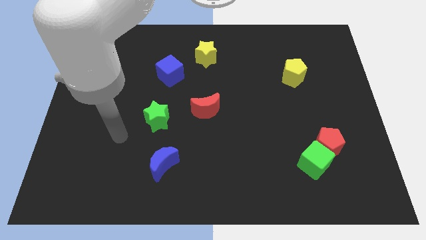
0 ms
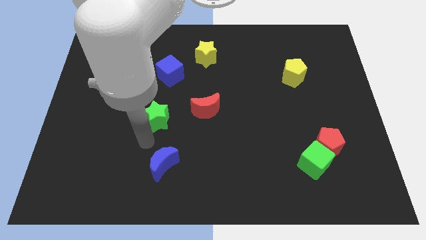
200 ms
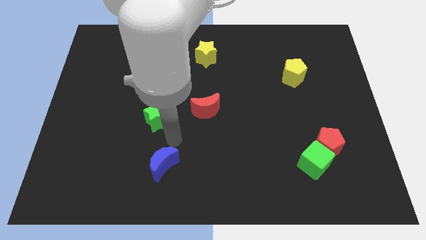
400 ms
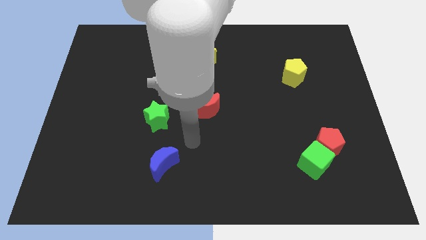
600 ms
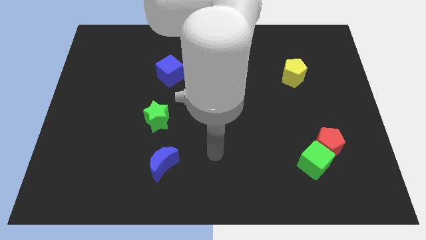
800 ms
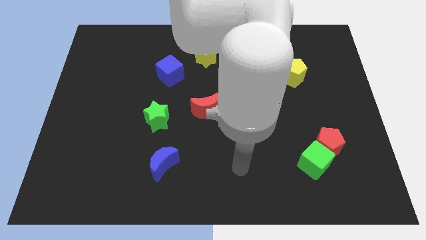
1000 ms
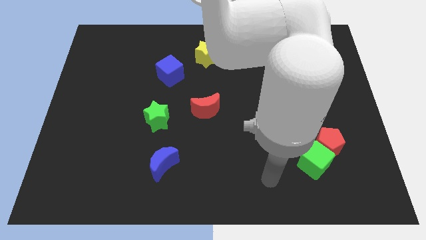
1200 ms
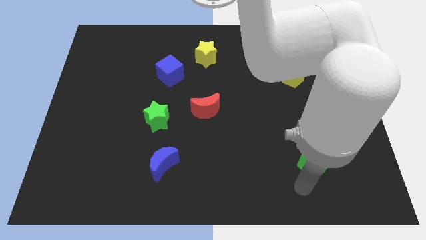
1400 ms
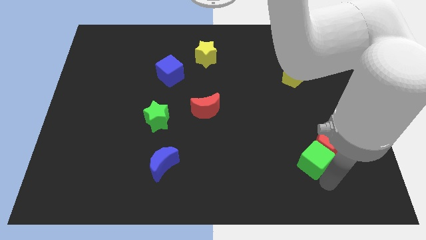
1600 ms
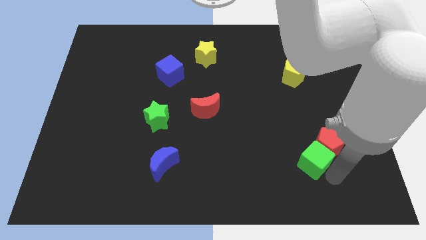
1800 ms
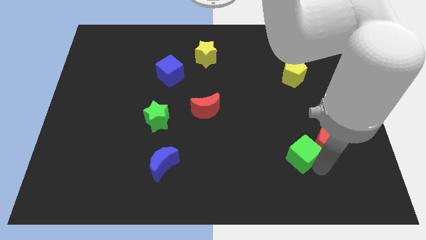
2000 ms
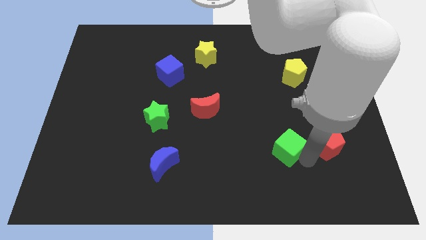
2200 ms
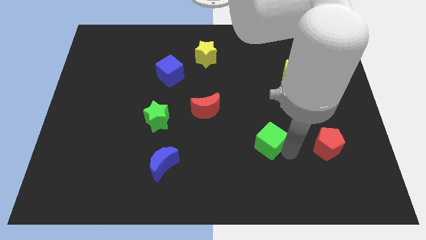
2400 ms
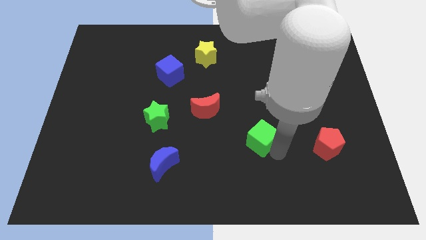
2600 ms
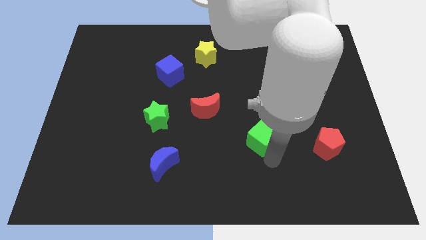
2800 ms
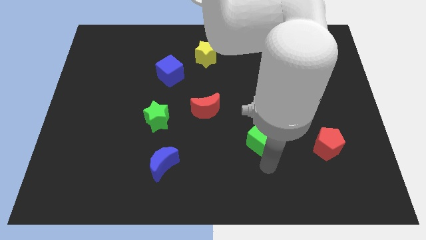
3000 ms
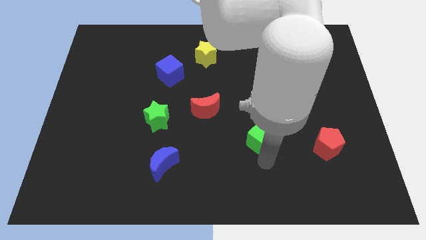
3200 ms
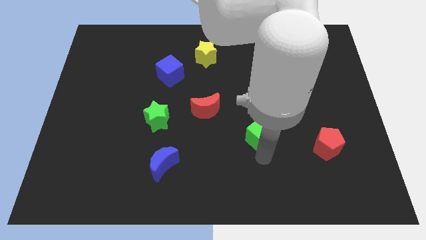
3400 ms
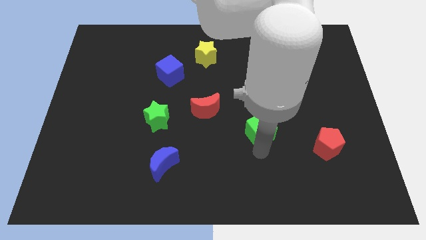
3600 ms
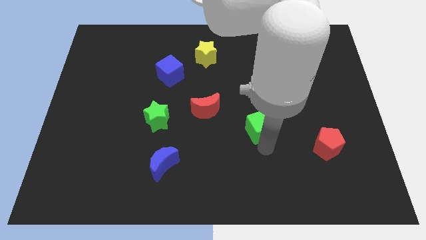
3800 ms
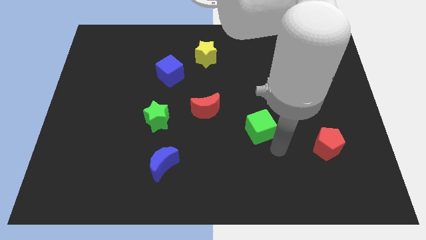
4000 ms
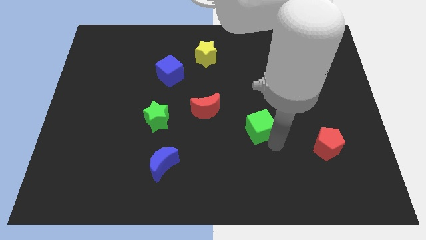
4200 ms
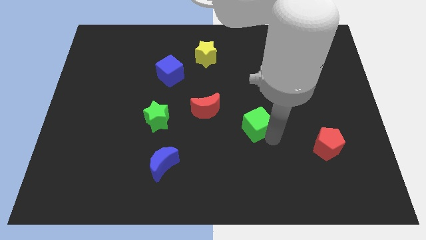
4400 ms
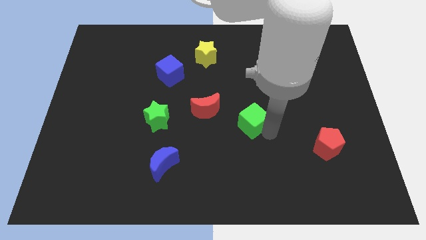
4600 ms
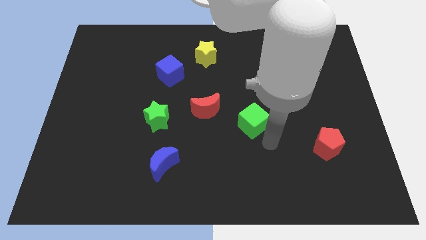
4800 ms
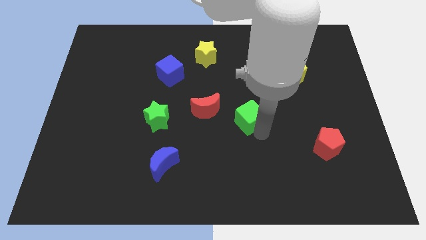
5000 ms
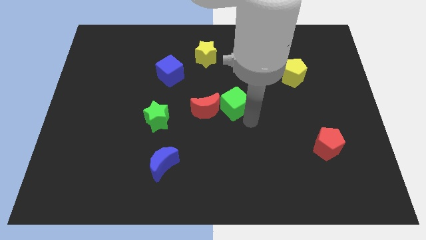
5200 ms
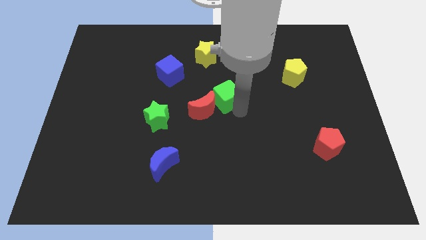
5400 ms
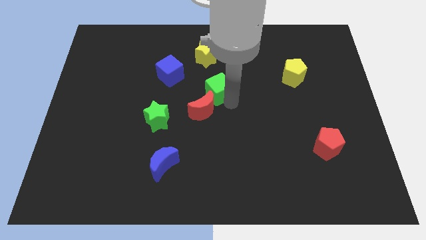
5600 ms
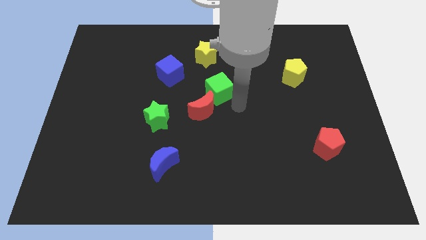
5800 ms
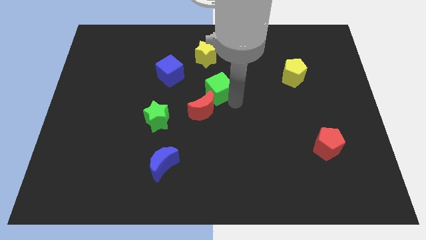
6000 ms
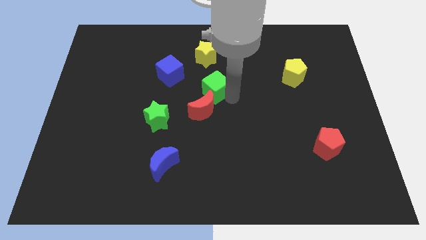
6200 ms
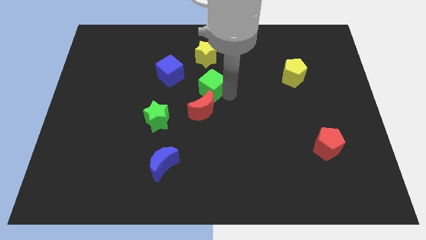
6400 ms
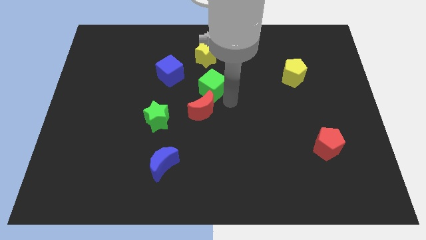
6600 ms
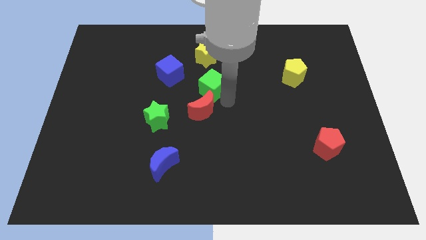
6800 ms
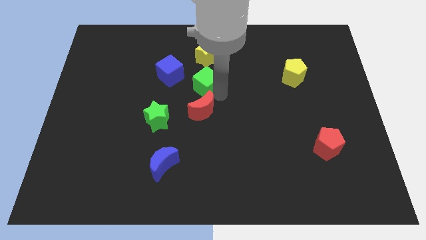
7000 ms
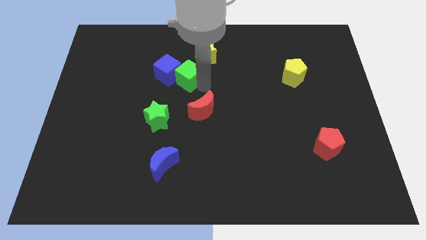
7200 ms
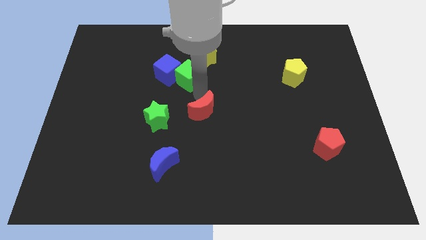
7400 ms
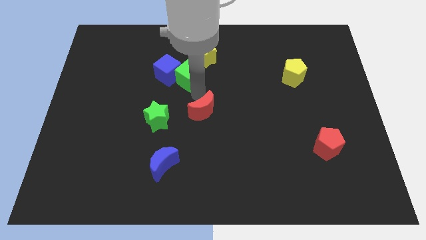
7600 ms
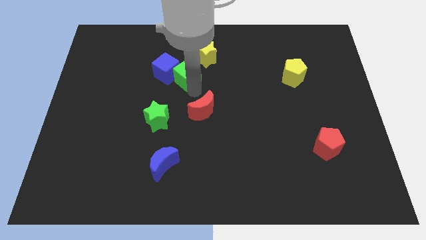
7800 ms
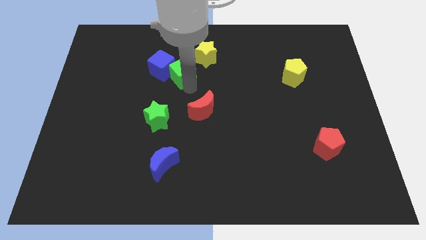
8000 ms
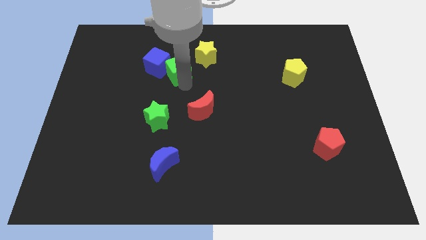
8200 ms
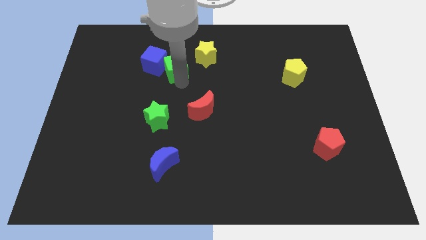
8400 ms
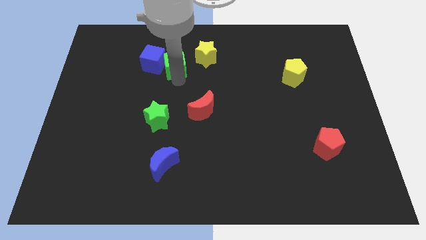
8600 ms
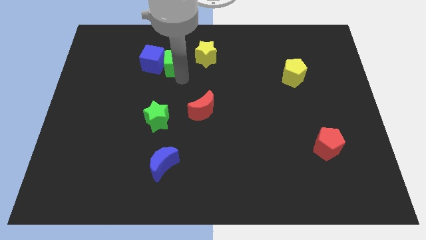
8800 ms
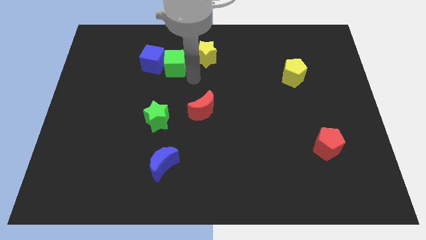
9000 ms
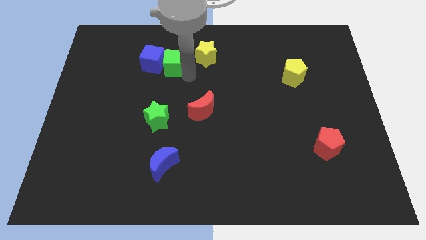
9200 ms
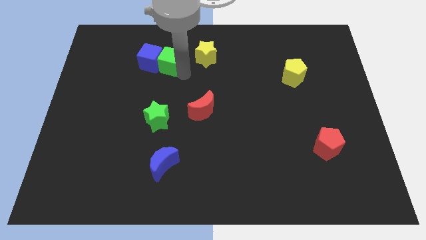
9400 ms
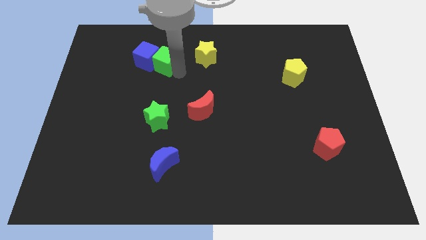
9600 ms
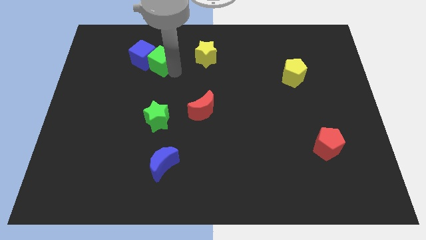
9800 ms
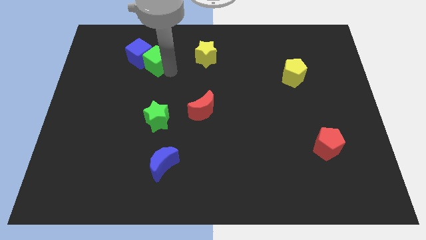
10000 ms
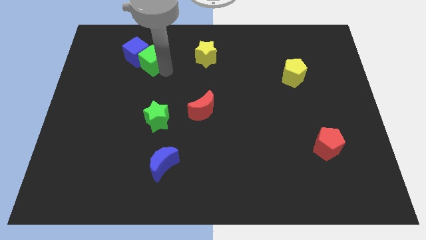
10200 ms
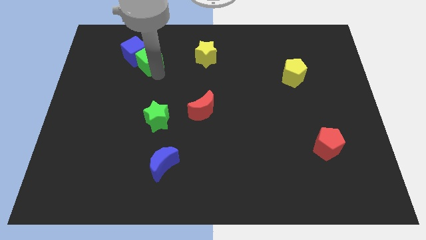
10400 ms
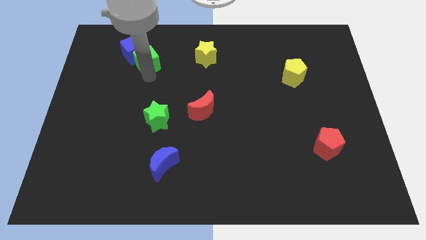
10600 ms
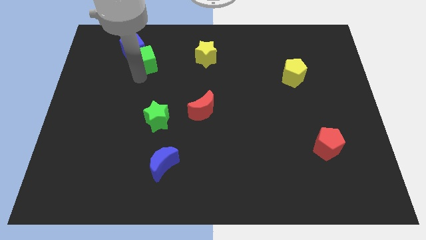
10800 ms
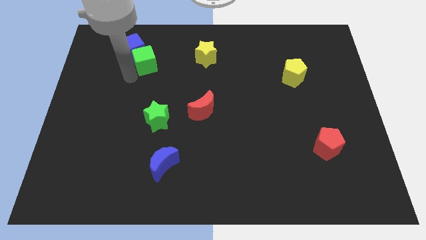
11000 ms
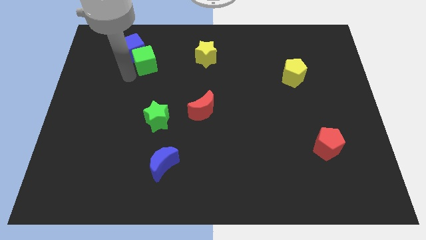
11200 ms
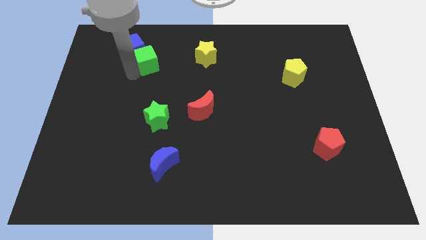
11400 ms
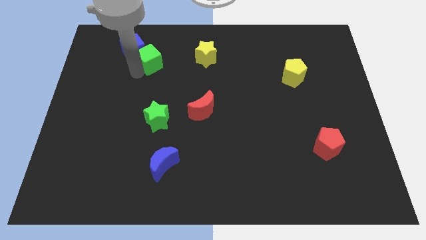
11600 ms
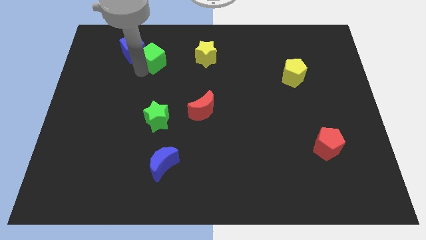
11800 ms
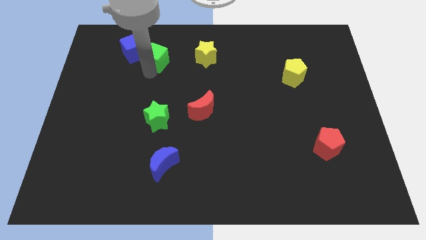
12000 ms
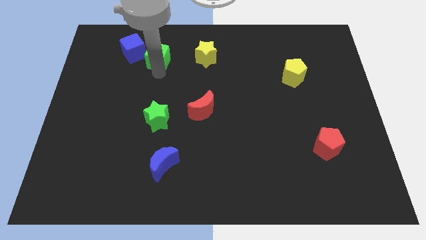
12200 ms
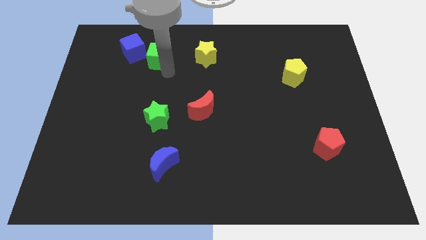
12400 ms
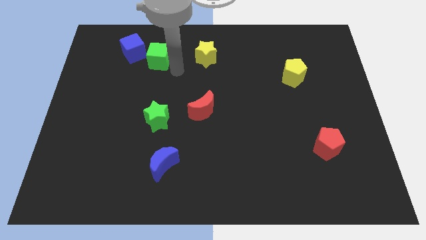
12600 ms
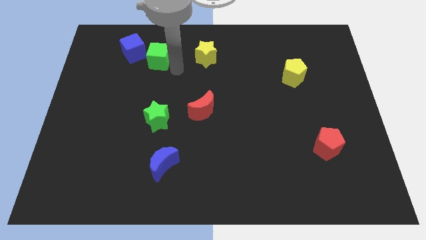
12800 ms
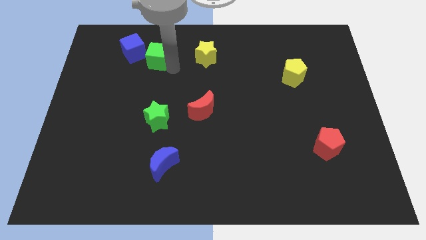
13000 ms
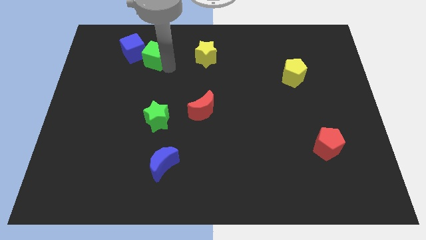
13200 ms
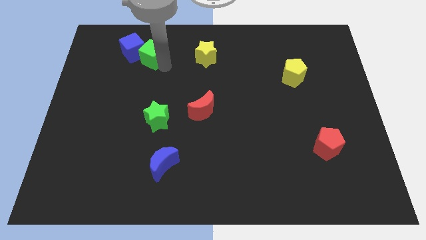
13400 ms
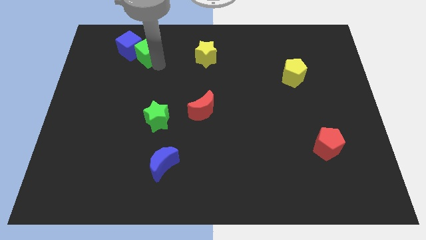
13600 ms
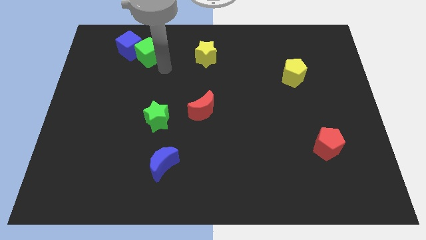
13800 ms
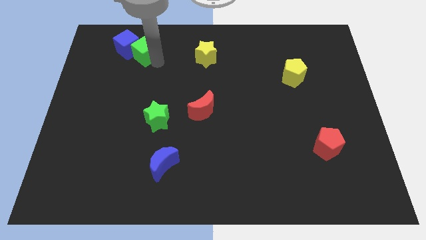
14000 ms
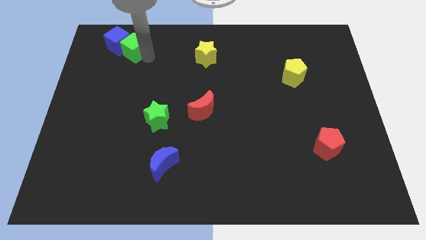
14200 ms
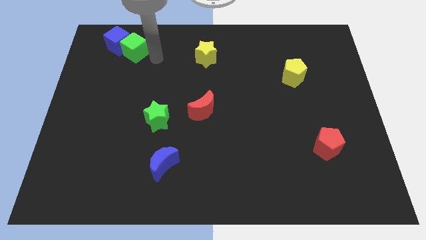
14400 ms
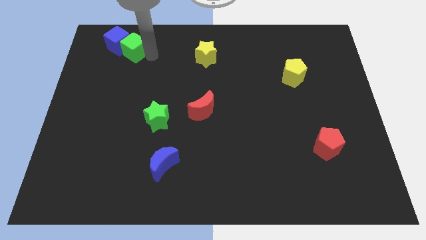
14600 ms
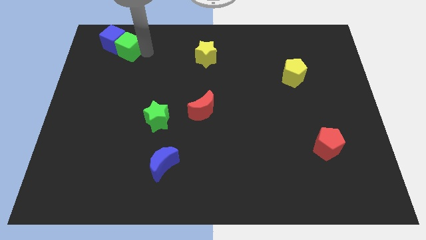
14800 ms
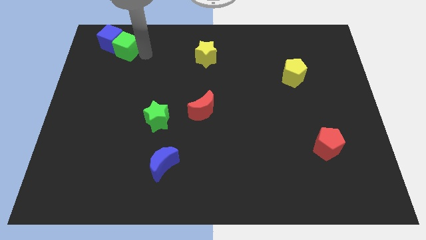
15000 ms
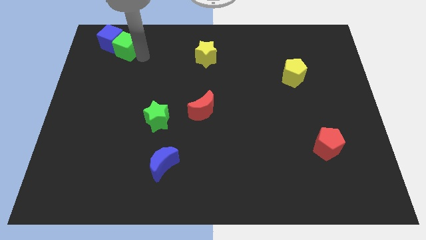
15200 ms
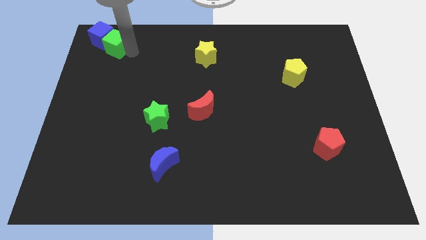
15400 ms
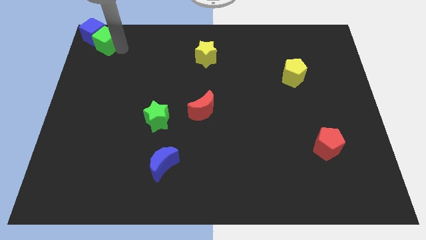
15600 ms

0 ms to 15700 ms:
move the green cube to the top left corner
